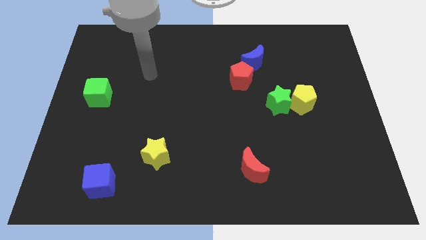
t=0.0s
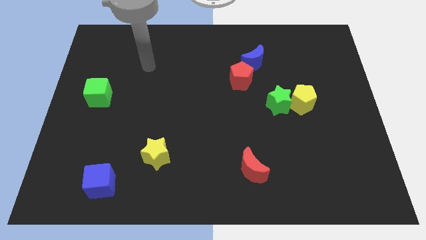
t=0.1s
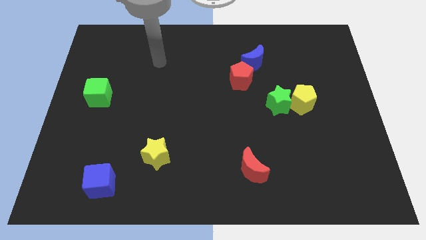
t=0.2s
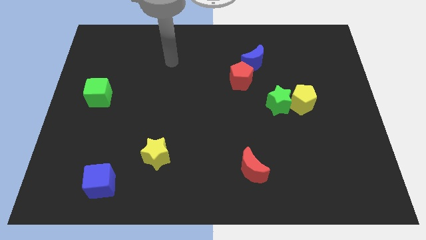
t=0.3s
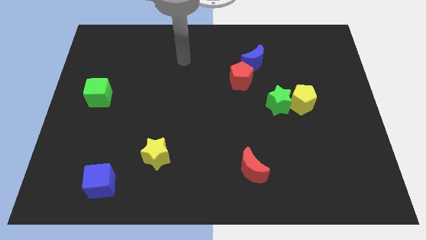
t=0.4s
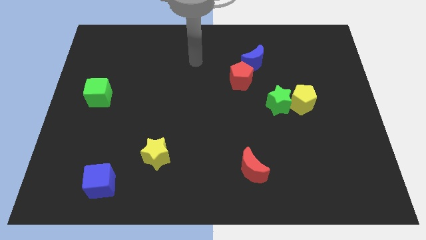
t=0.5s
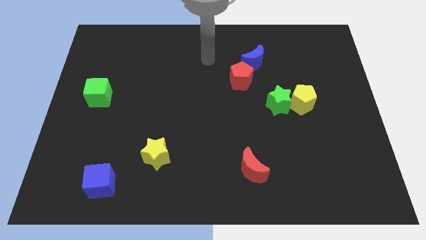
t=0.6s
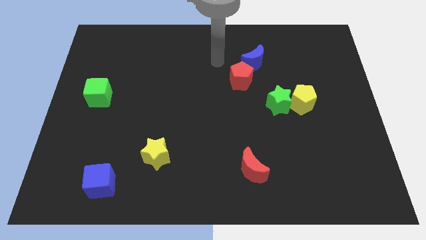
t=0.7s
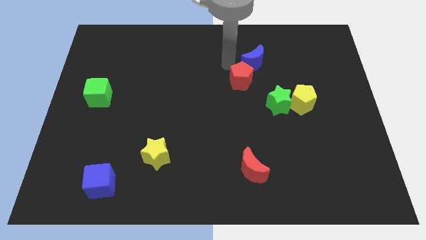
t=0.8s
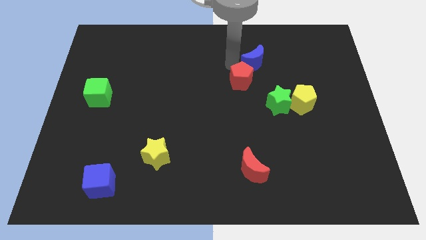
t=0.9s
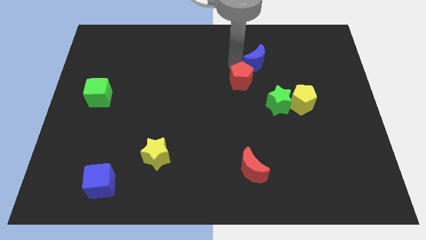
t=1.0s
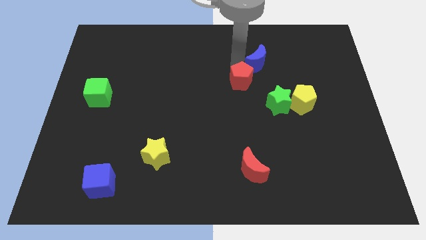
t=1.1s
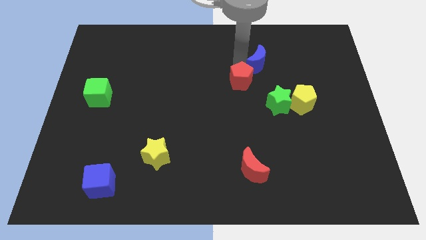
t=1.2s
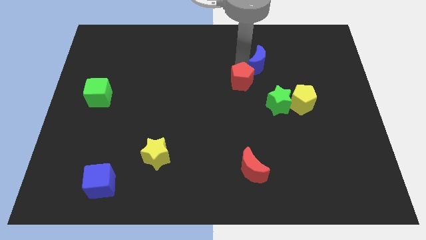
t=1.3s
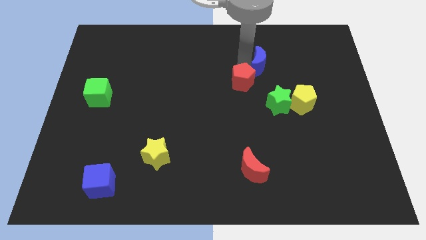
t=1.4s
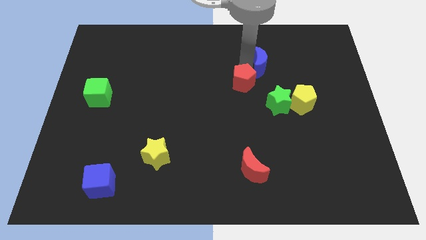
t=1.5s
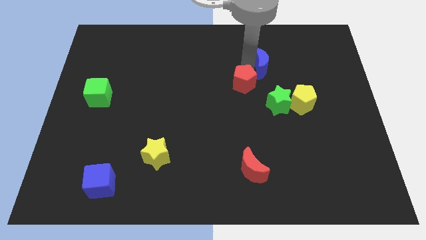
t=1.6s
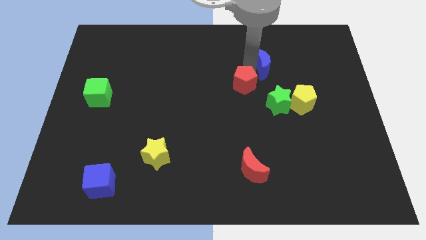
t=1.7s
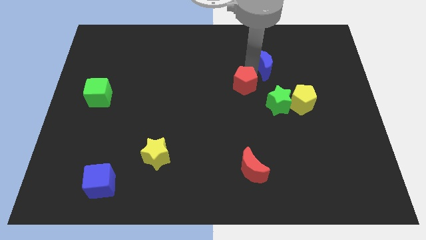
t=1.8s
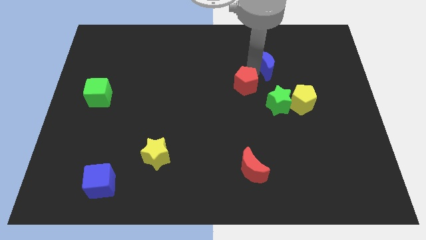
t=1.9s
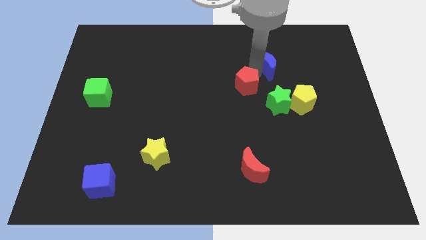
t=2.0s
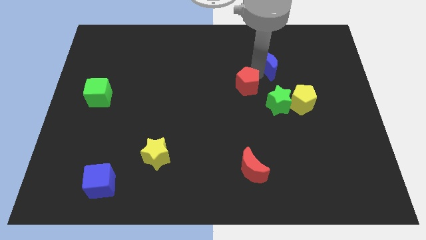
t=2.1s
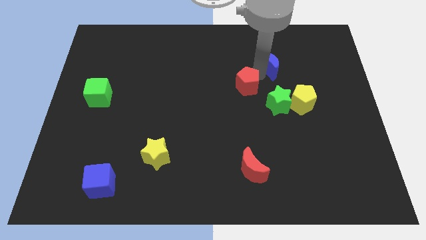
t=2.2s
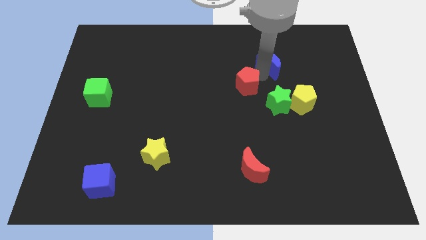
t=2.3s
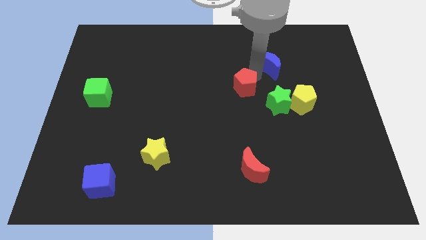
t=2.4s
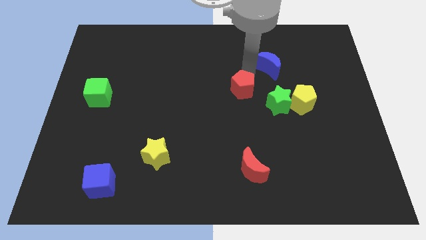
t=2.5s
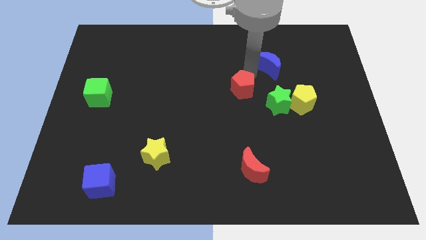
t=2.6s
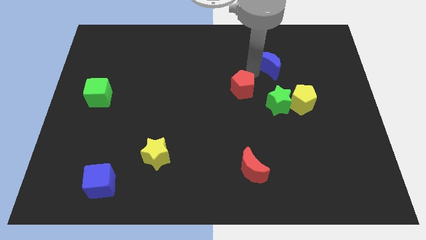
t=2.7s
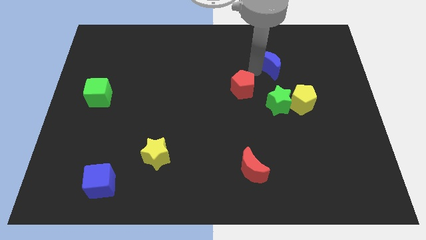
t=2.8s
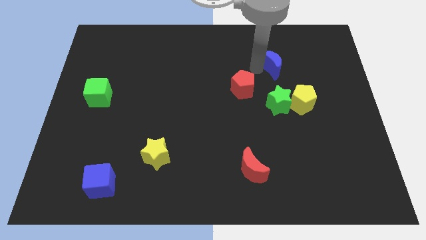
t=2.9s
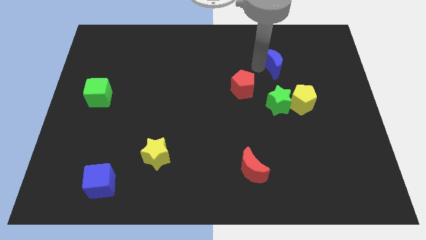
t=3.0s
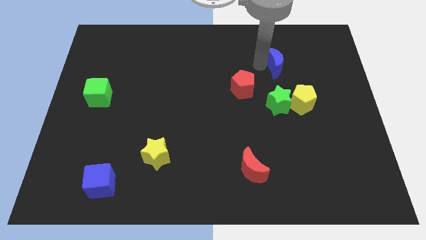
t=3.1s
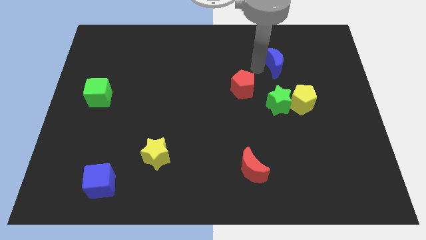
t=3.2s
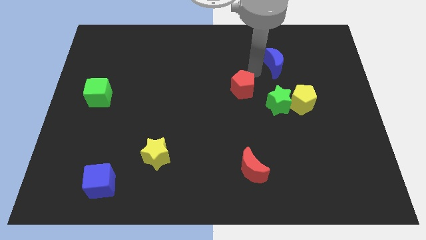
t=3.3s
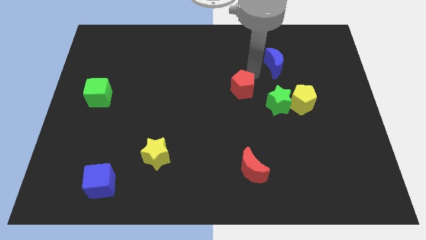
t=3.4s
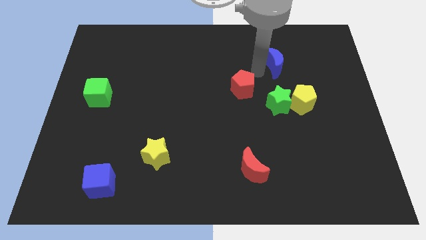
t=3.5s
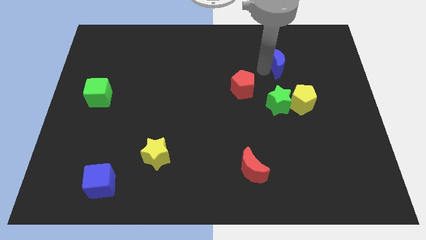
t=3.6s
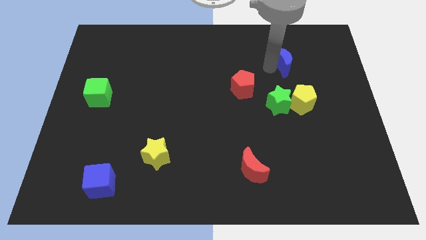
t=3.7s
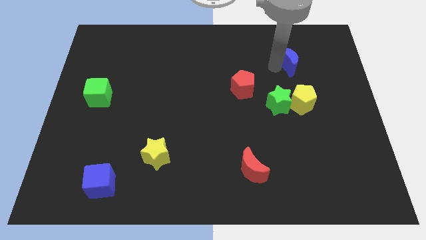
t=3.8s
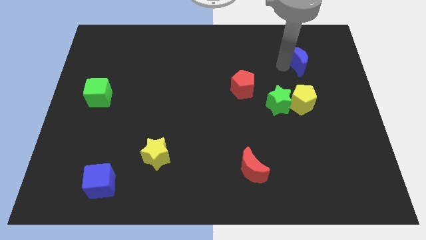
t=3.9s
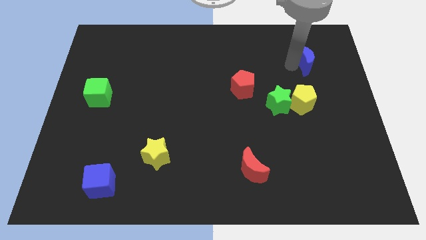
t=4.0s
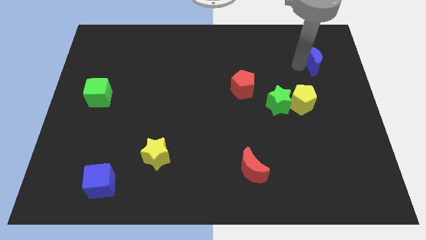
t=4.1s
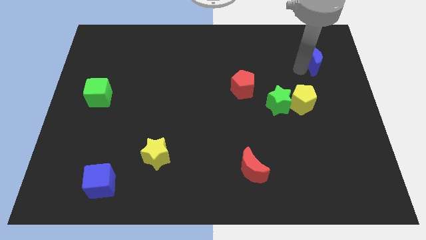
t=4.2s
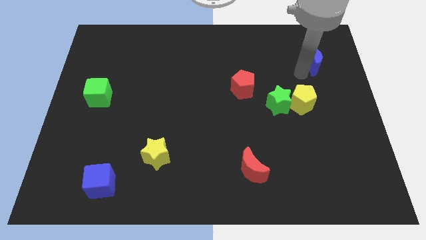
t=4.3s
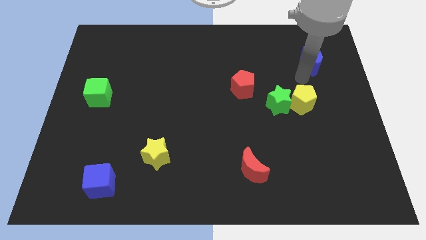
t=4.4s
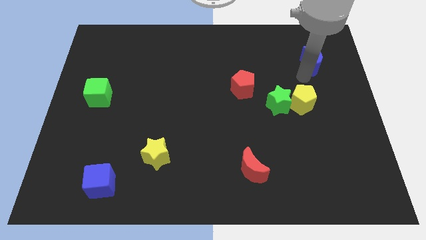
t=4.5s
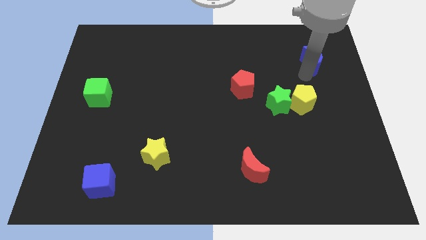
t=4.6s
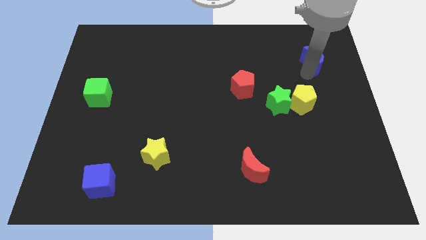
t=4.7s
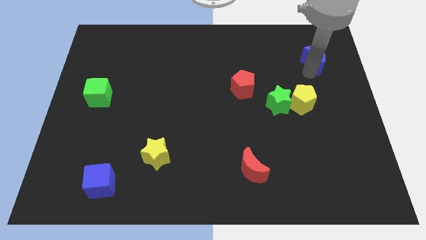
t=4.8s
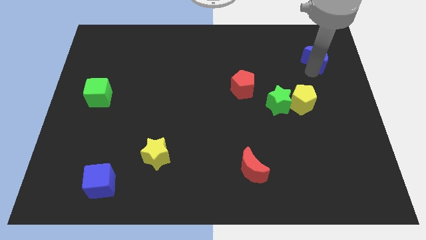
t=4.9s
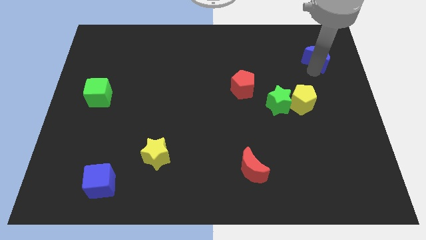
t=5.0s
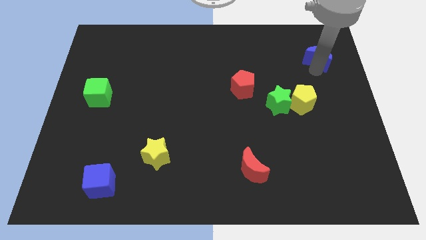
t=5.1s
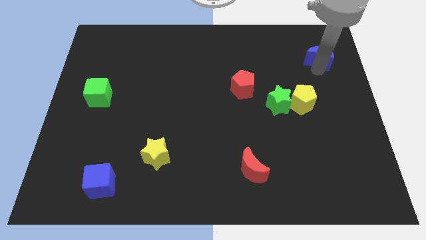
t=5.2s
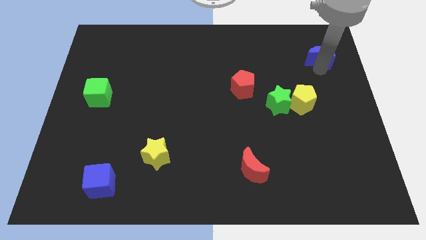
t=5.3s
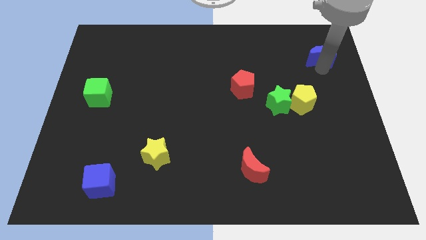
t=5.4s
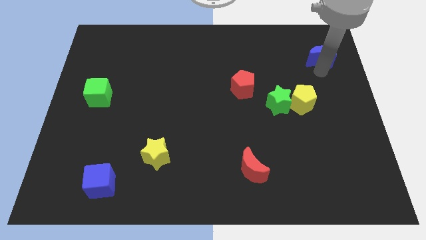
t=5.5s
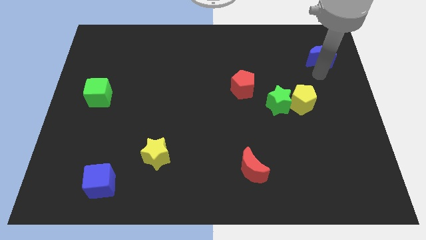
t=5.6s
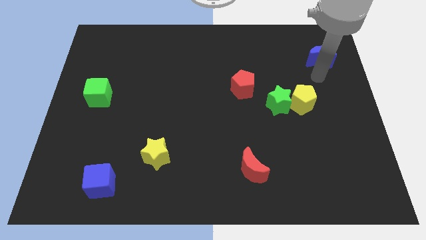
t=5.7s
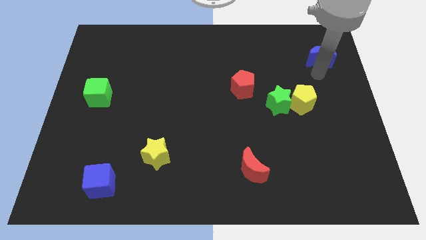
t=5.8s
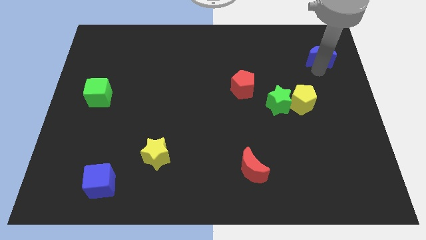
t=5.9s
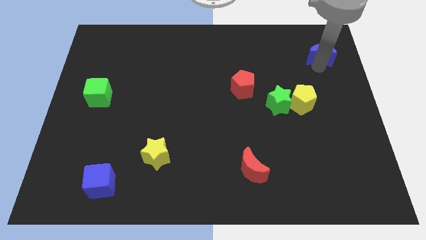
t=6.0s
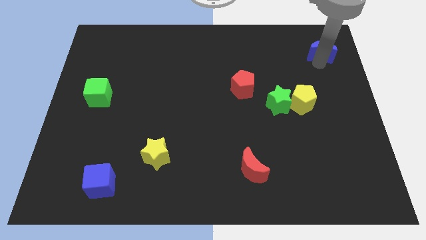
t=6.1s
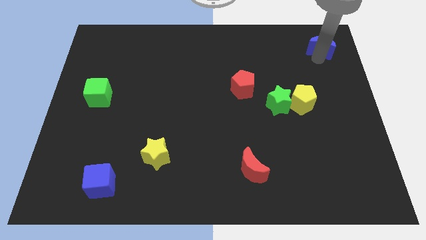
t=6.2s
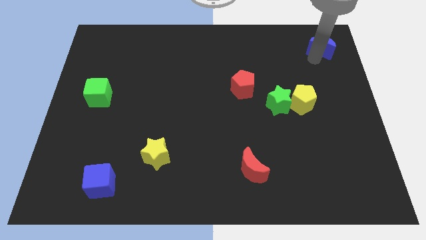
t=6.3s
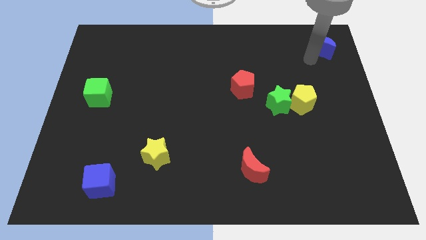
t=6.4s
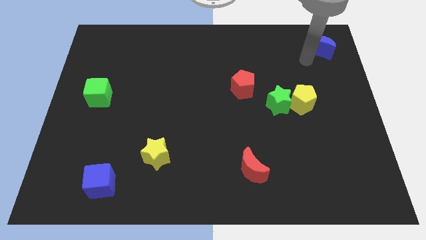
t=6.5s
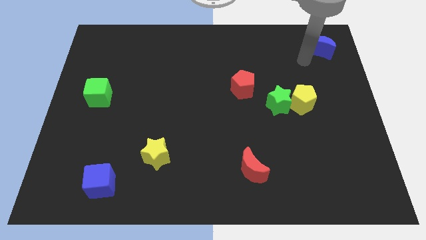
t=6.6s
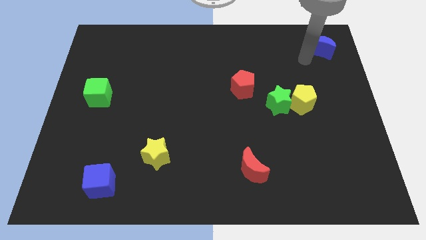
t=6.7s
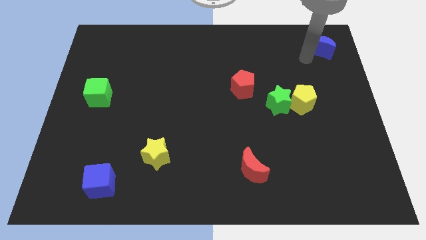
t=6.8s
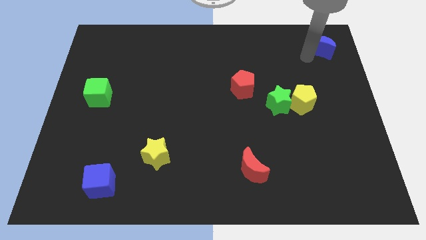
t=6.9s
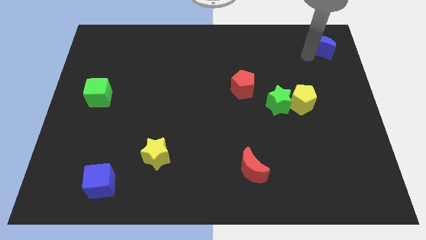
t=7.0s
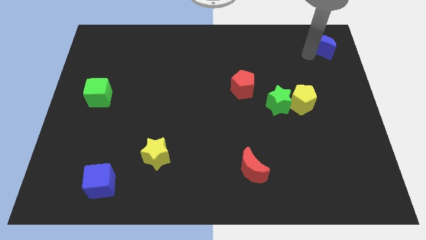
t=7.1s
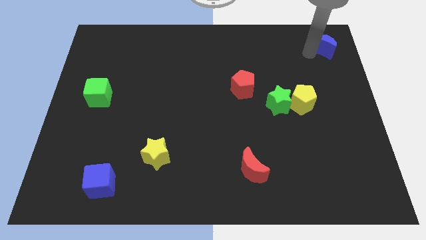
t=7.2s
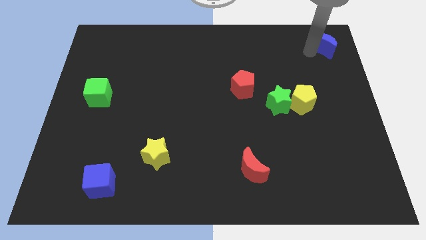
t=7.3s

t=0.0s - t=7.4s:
push the blue moon to the top right corner
